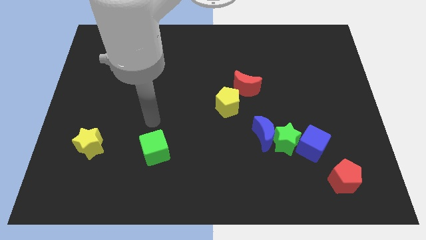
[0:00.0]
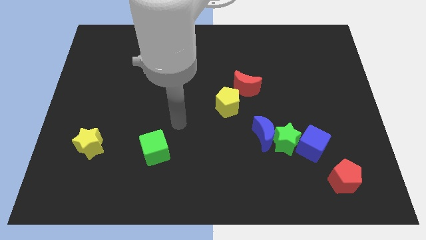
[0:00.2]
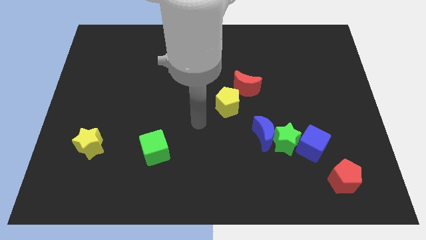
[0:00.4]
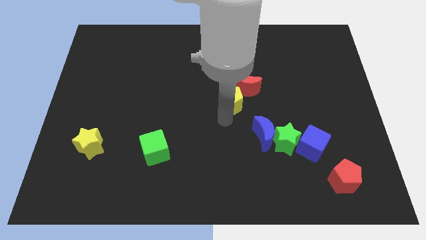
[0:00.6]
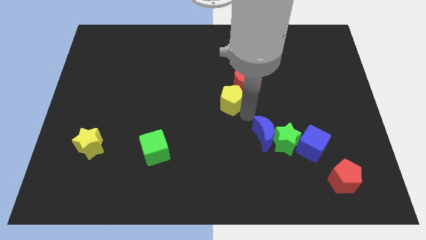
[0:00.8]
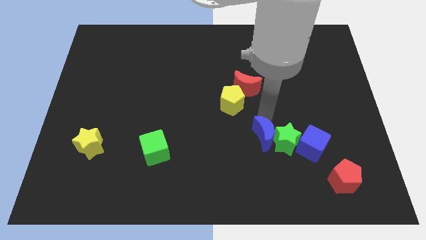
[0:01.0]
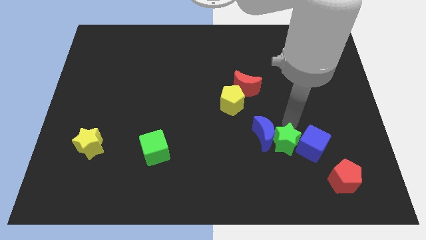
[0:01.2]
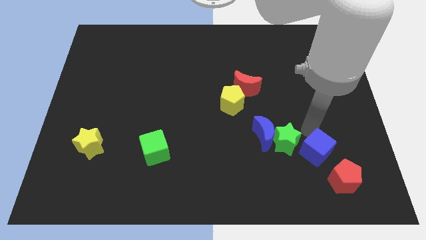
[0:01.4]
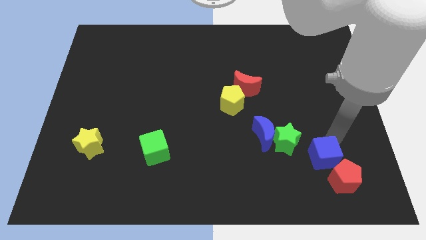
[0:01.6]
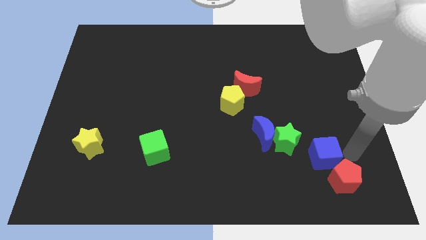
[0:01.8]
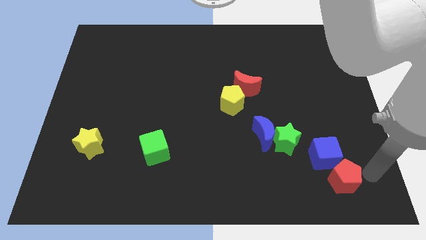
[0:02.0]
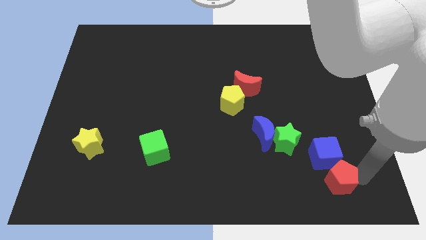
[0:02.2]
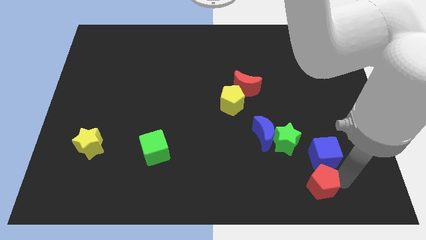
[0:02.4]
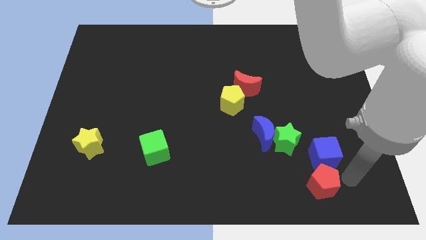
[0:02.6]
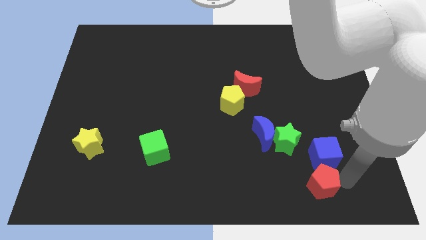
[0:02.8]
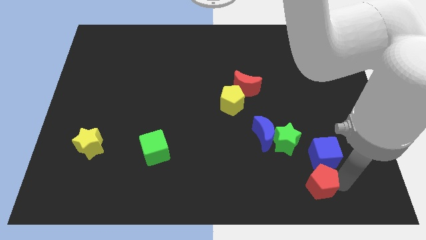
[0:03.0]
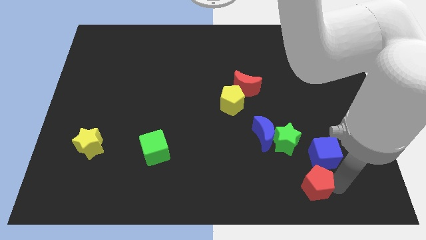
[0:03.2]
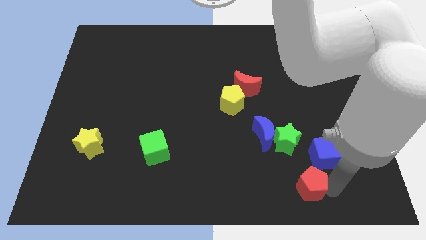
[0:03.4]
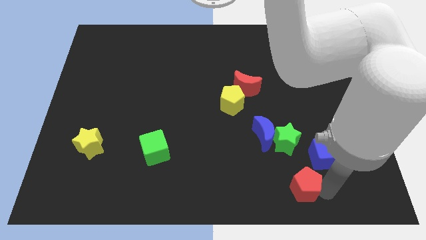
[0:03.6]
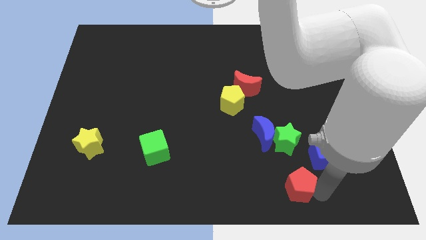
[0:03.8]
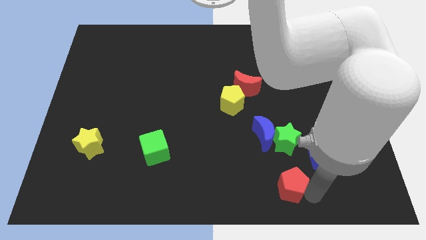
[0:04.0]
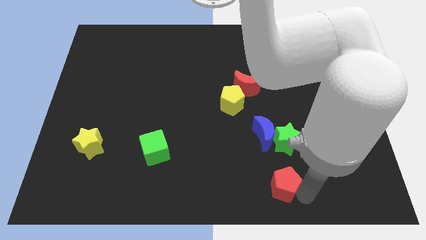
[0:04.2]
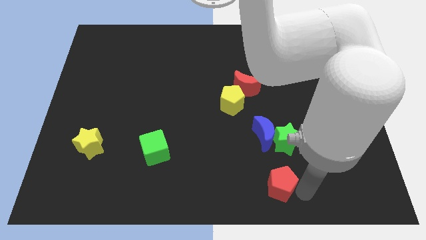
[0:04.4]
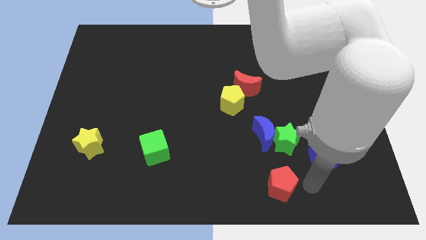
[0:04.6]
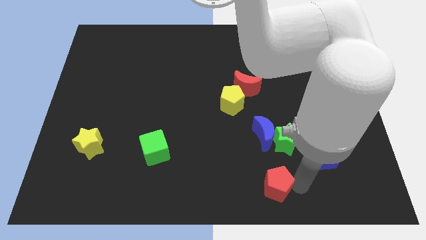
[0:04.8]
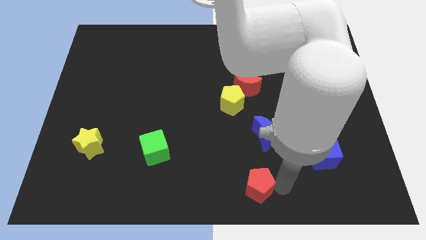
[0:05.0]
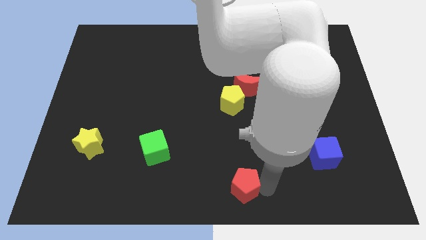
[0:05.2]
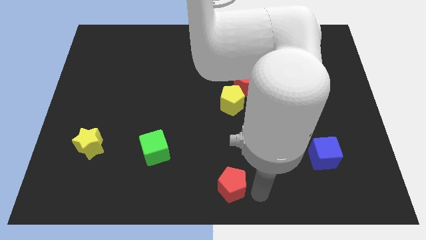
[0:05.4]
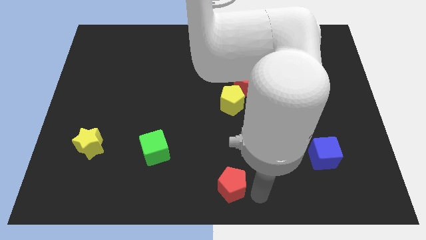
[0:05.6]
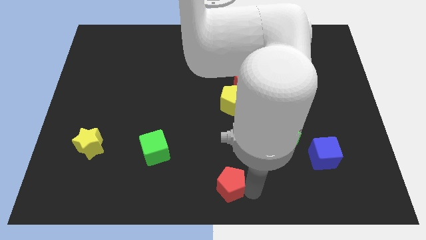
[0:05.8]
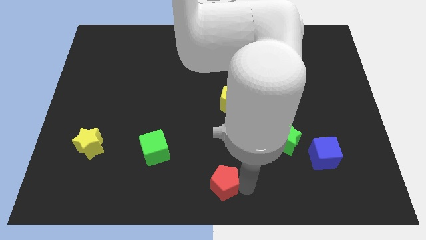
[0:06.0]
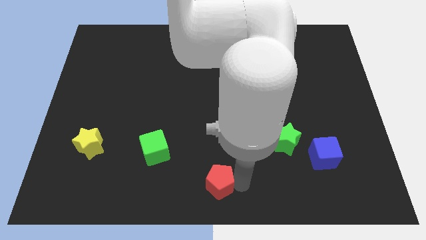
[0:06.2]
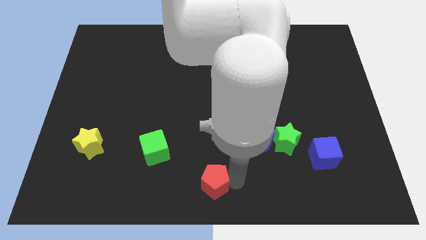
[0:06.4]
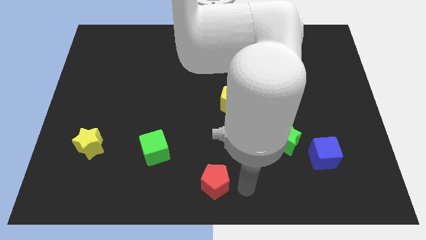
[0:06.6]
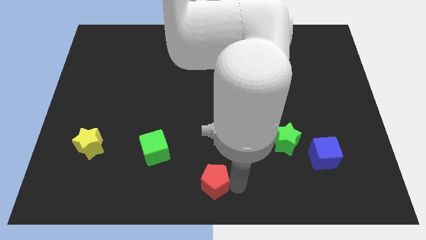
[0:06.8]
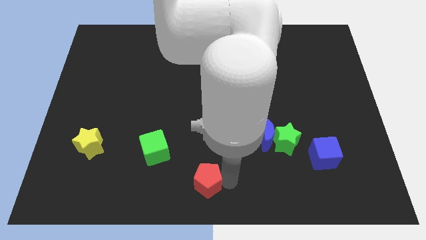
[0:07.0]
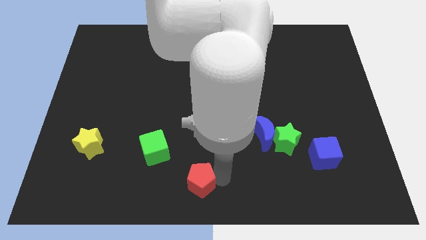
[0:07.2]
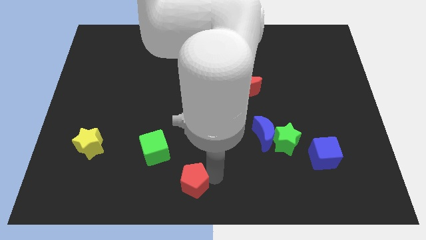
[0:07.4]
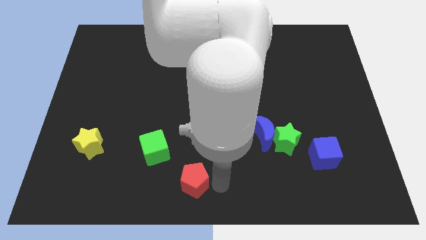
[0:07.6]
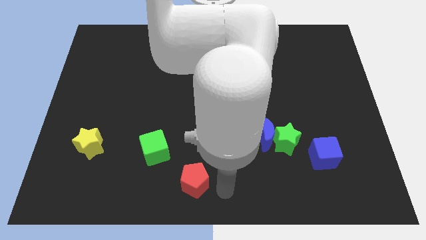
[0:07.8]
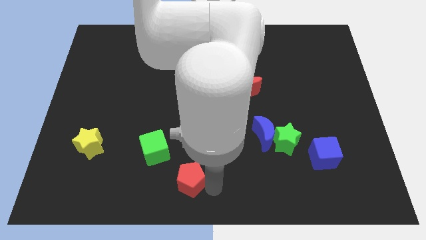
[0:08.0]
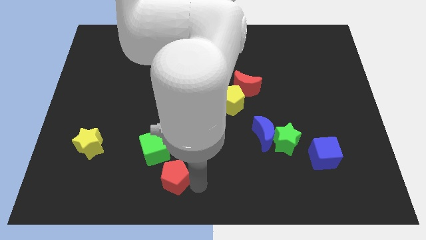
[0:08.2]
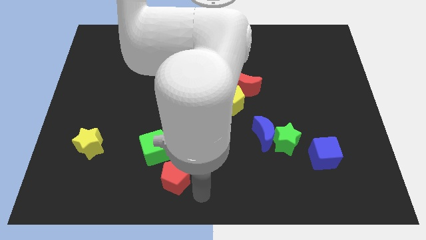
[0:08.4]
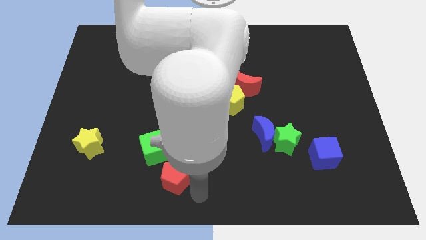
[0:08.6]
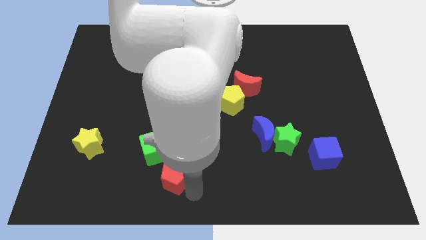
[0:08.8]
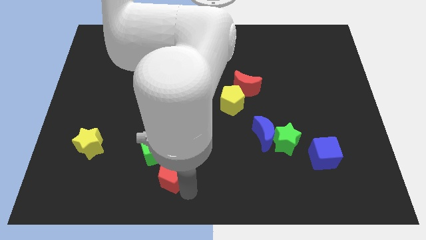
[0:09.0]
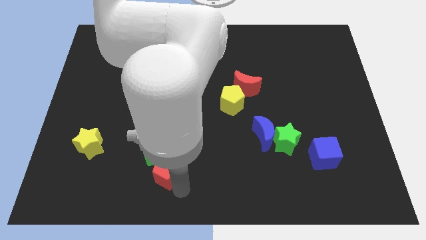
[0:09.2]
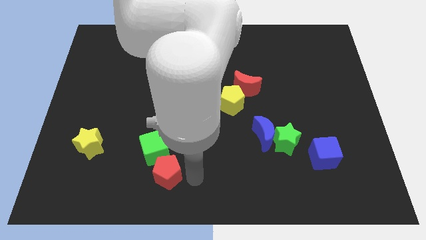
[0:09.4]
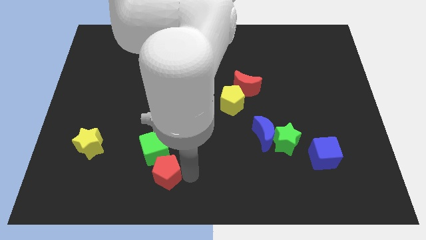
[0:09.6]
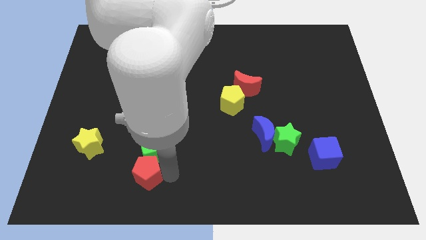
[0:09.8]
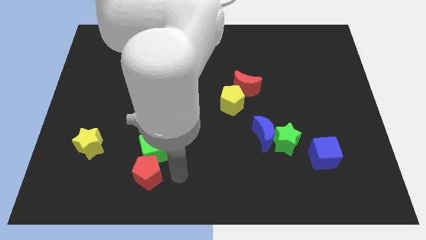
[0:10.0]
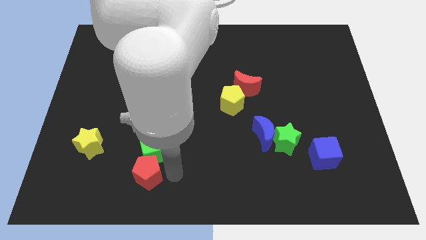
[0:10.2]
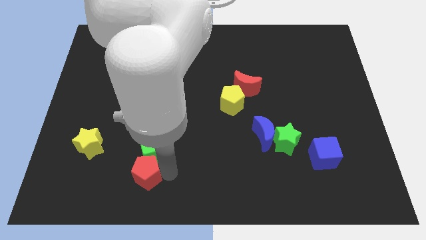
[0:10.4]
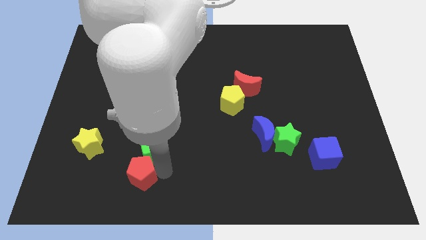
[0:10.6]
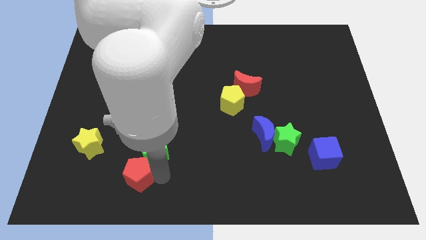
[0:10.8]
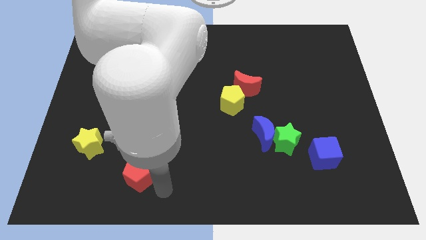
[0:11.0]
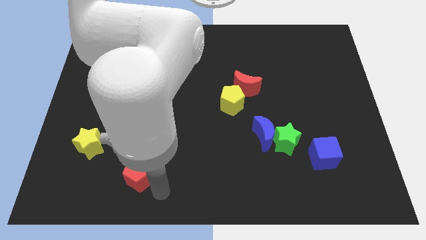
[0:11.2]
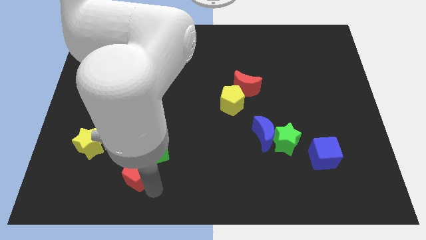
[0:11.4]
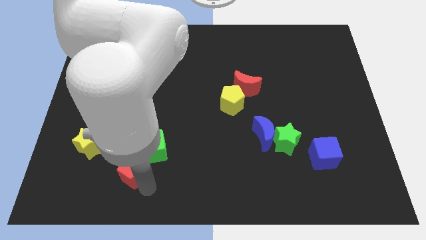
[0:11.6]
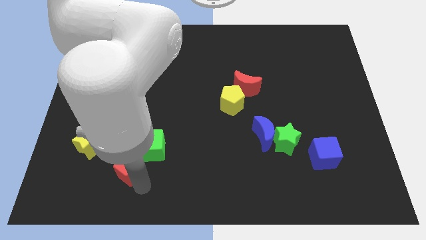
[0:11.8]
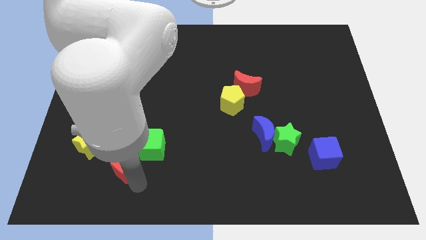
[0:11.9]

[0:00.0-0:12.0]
slide the red pentagon to the left side of the green cube
